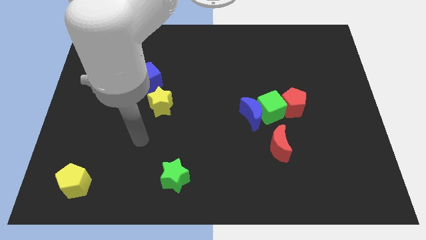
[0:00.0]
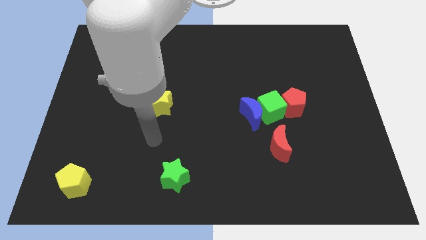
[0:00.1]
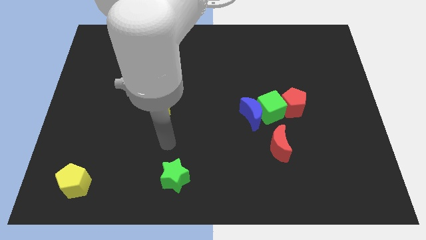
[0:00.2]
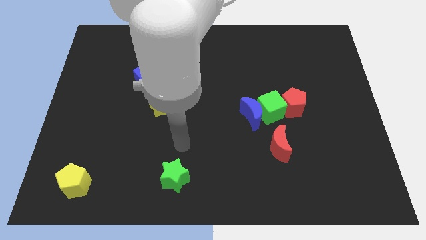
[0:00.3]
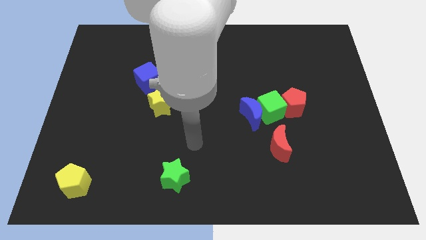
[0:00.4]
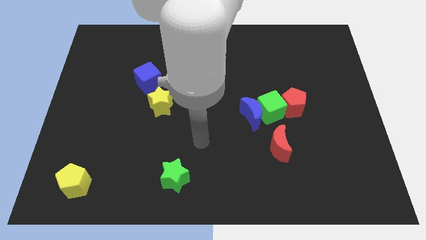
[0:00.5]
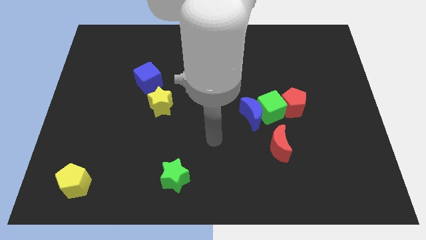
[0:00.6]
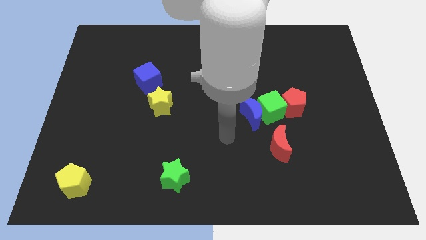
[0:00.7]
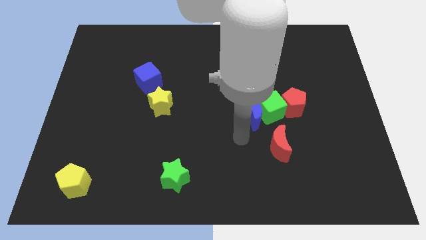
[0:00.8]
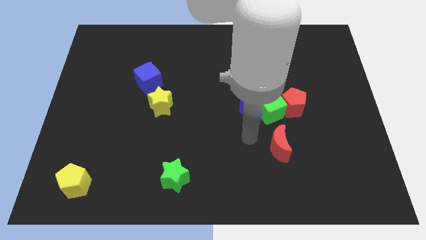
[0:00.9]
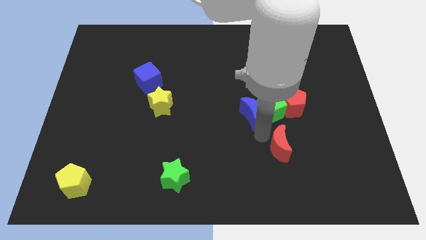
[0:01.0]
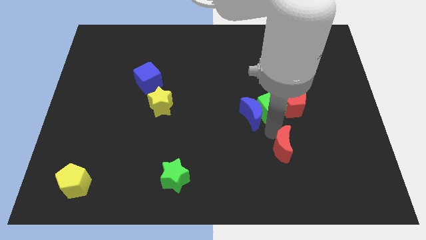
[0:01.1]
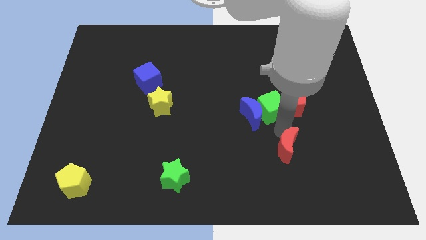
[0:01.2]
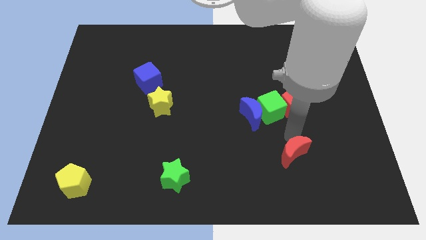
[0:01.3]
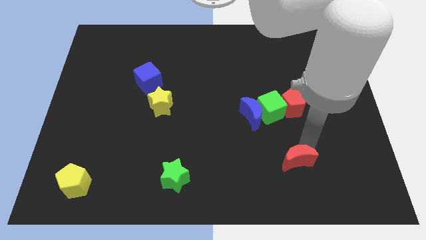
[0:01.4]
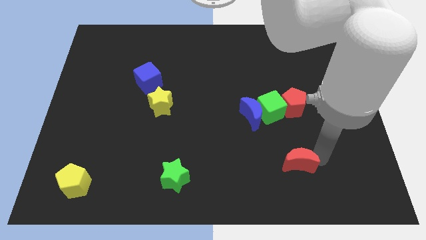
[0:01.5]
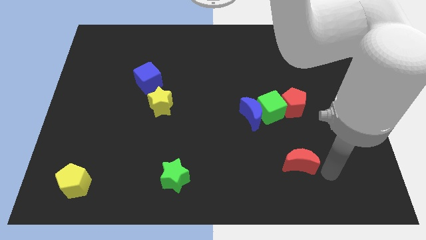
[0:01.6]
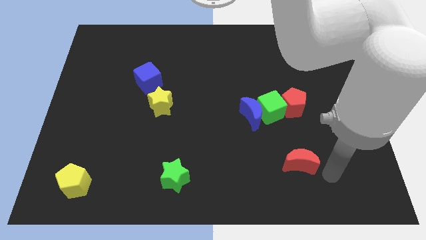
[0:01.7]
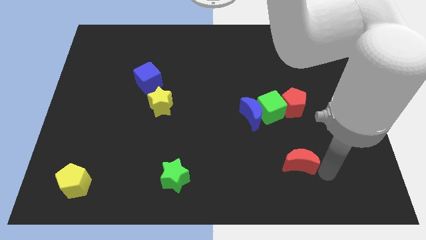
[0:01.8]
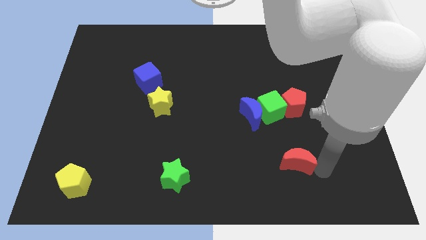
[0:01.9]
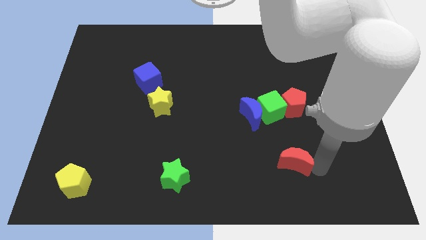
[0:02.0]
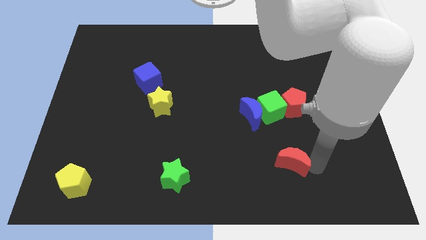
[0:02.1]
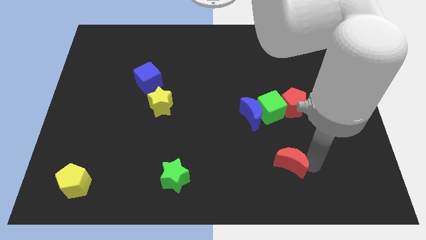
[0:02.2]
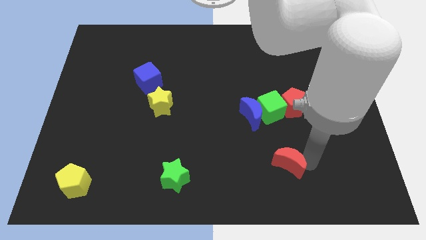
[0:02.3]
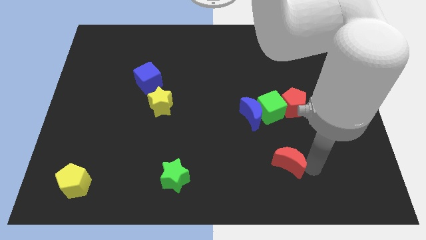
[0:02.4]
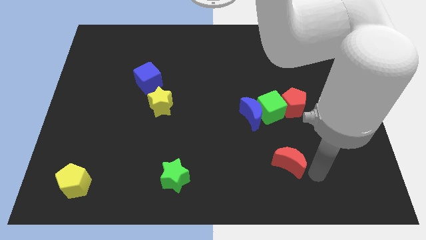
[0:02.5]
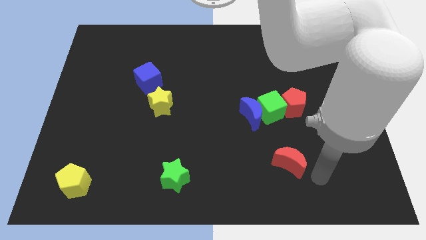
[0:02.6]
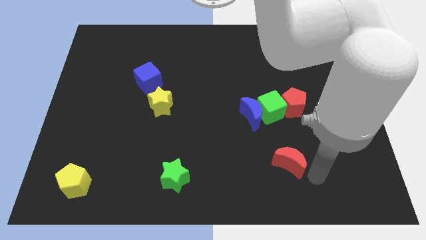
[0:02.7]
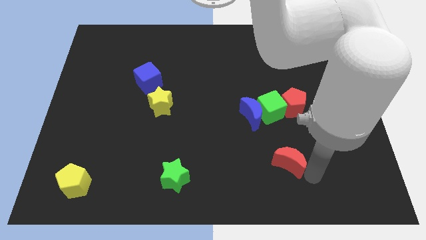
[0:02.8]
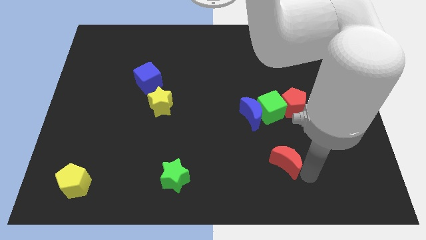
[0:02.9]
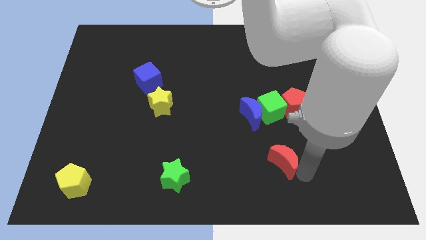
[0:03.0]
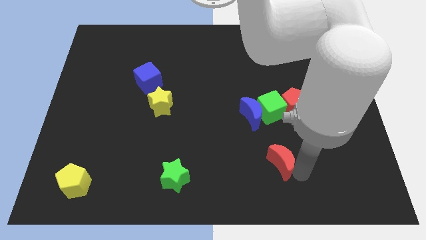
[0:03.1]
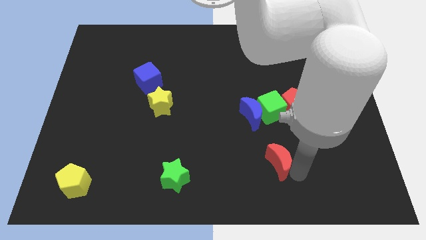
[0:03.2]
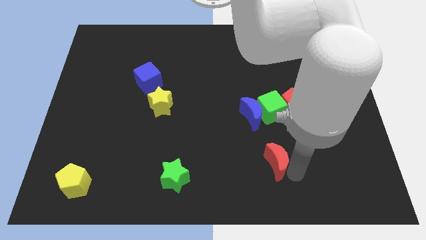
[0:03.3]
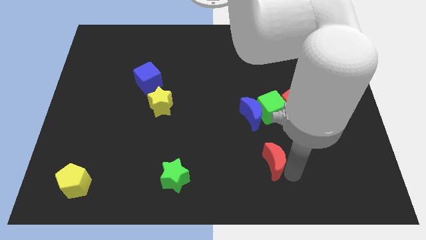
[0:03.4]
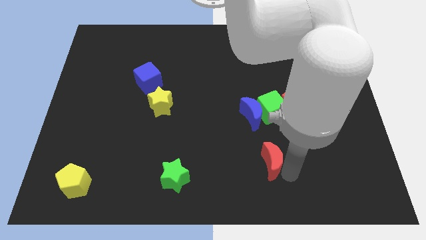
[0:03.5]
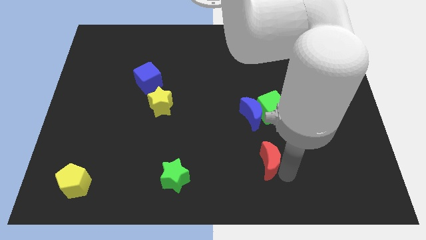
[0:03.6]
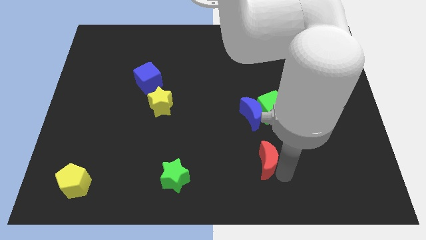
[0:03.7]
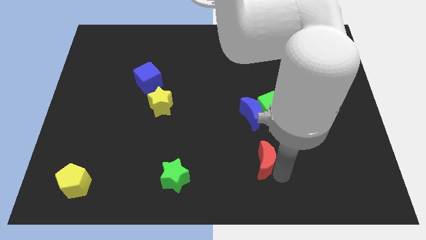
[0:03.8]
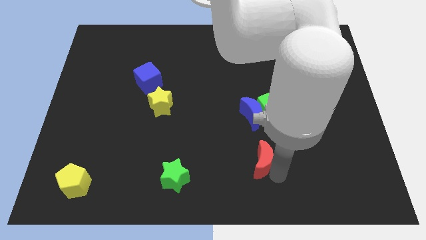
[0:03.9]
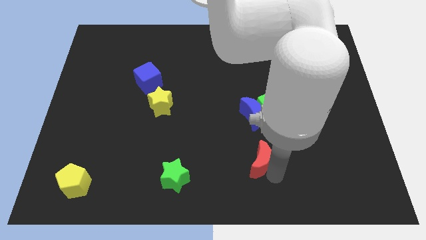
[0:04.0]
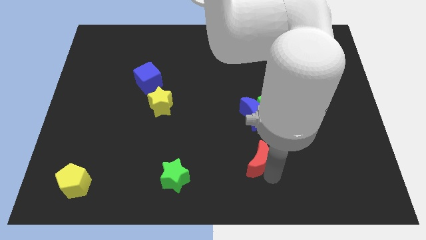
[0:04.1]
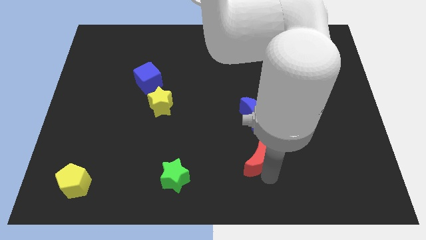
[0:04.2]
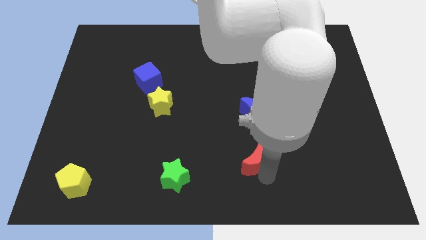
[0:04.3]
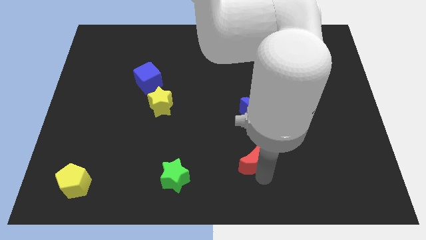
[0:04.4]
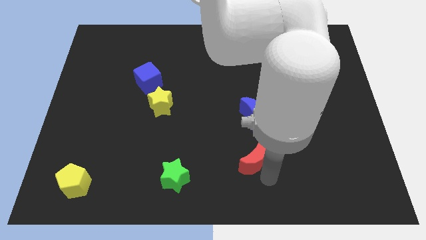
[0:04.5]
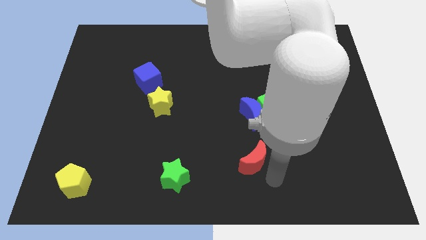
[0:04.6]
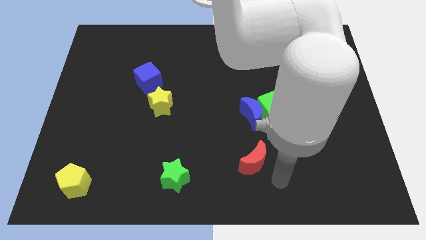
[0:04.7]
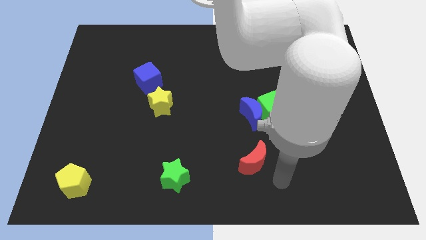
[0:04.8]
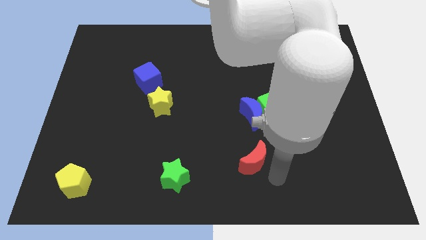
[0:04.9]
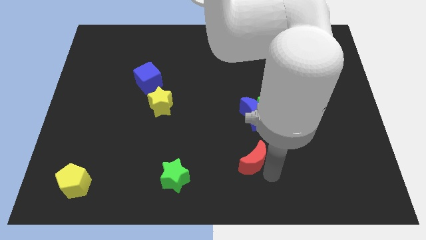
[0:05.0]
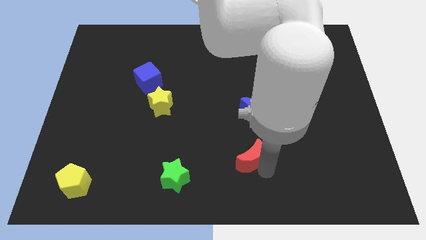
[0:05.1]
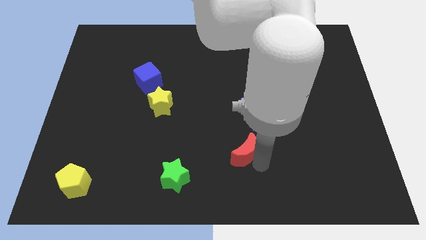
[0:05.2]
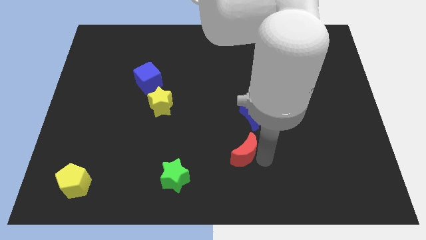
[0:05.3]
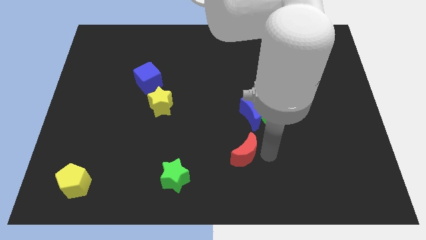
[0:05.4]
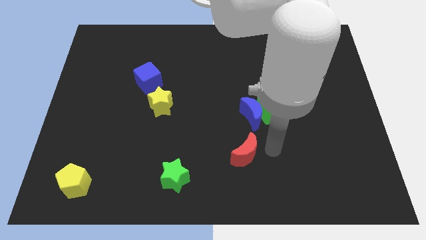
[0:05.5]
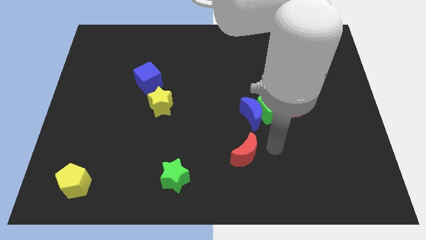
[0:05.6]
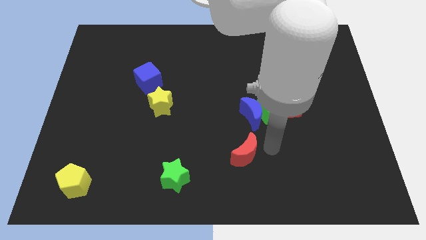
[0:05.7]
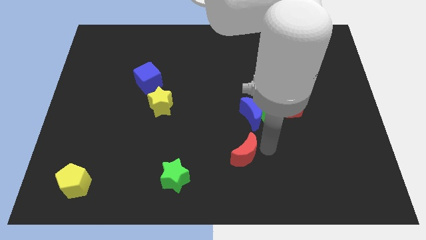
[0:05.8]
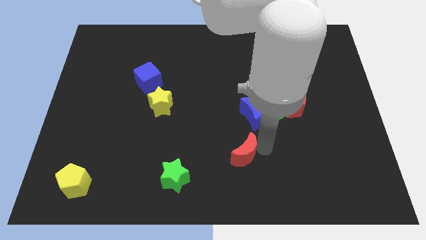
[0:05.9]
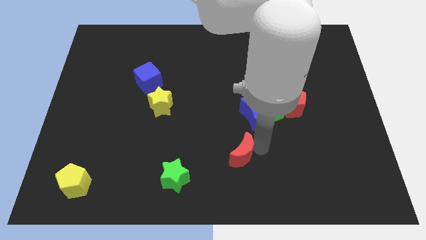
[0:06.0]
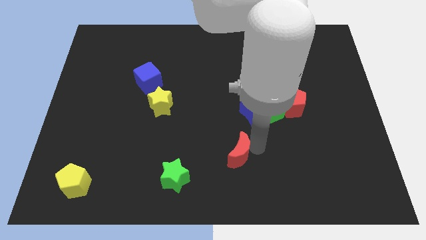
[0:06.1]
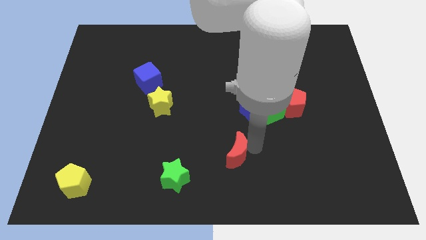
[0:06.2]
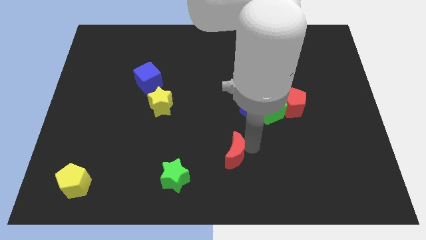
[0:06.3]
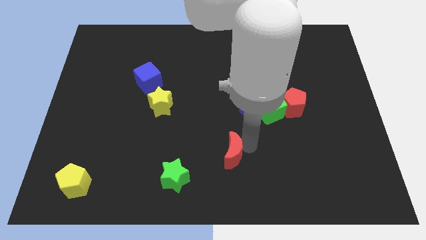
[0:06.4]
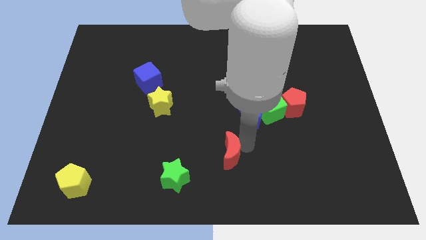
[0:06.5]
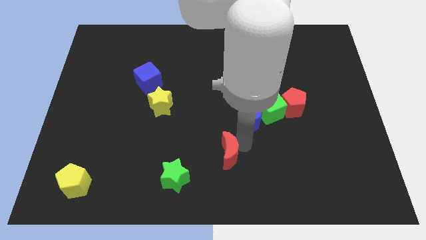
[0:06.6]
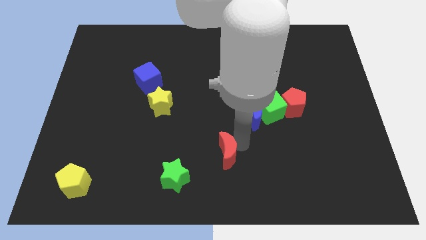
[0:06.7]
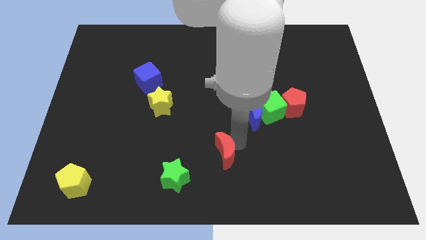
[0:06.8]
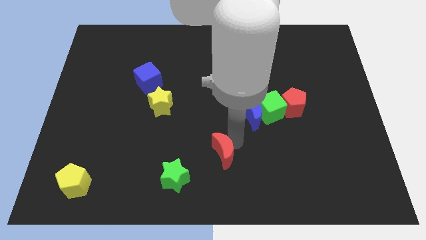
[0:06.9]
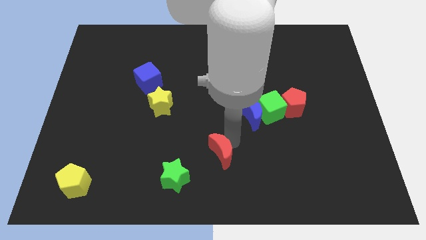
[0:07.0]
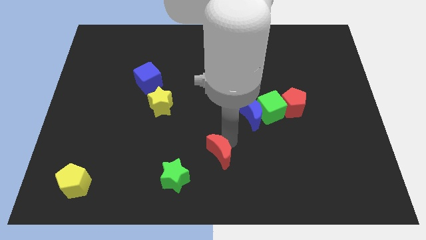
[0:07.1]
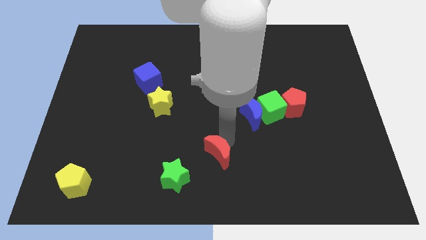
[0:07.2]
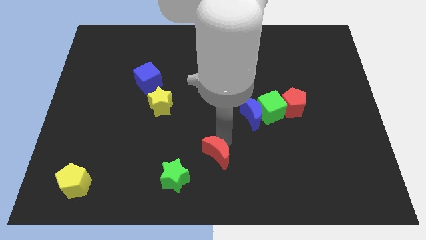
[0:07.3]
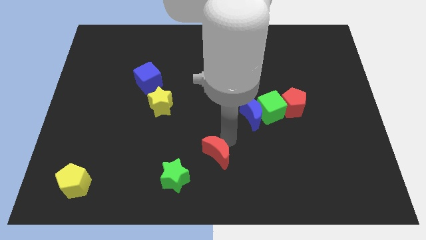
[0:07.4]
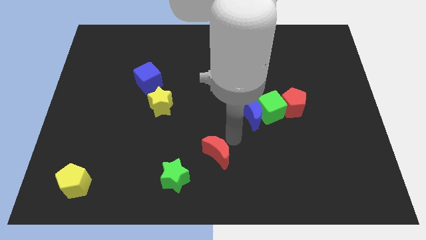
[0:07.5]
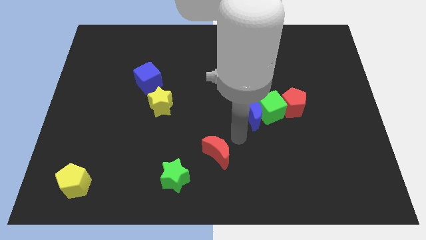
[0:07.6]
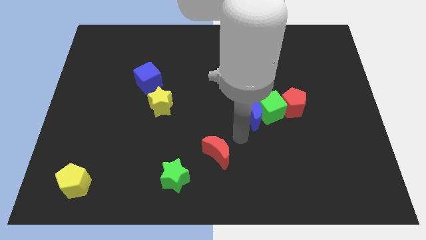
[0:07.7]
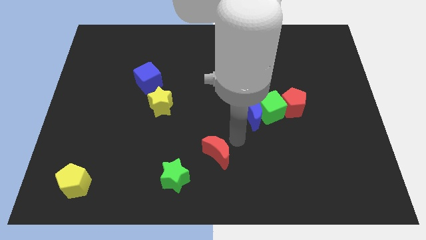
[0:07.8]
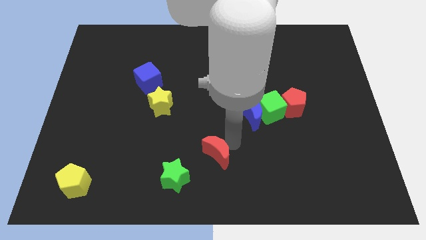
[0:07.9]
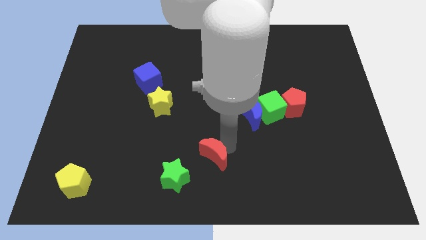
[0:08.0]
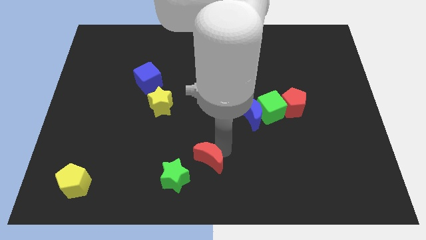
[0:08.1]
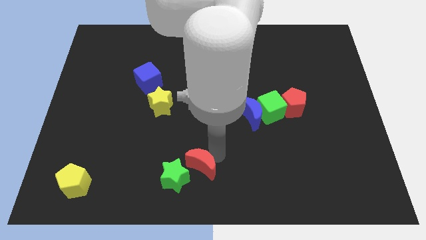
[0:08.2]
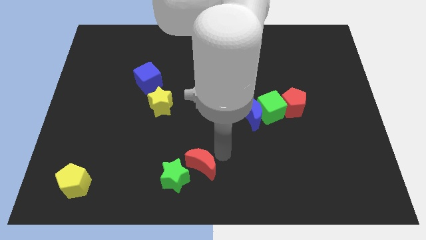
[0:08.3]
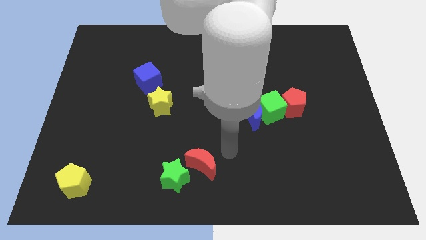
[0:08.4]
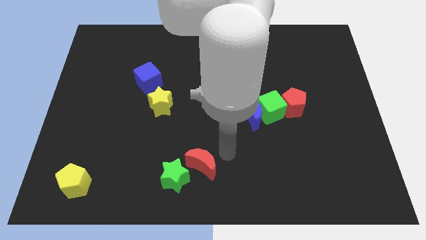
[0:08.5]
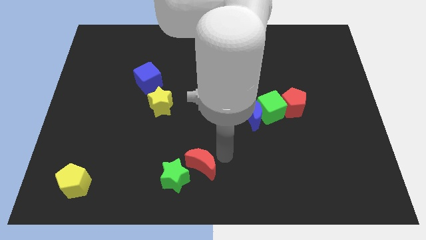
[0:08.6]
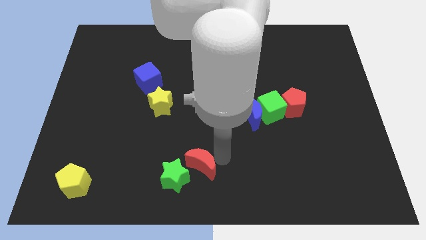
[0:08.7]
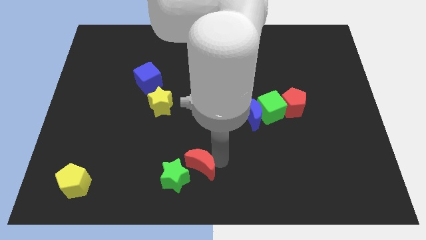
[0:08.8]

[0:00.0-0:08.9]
push the red moon close to the green star
